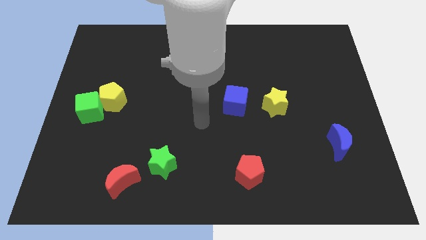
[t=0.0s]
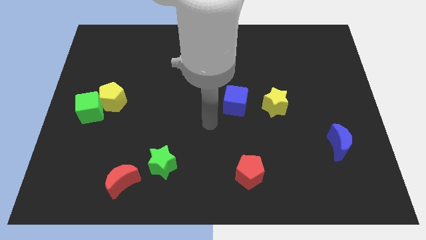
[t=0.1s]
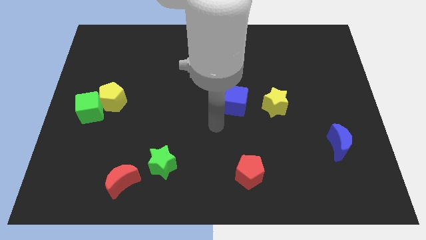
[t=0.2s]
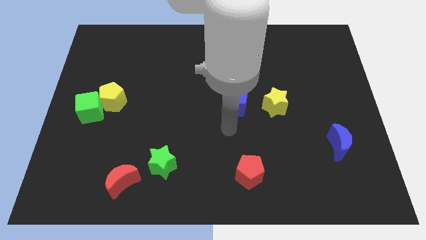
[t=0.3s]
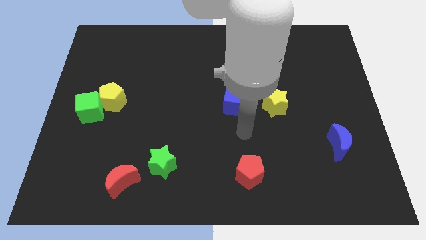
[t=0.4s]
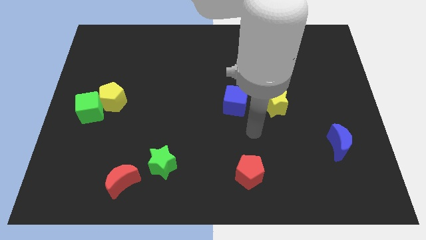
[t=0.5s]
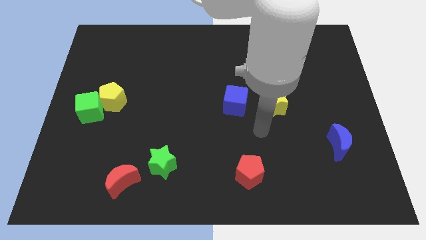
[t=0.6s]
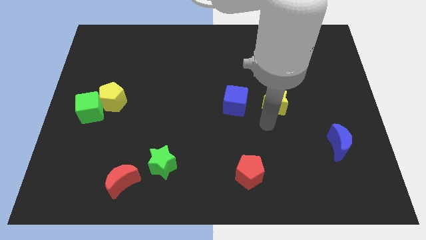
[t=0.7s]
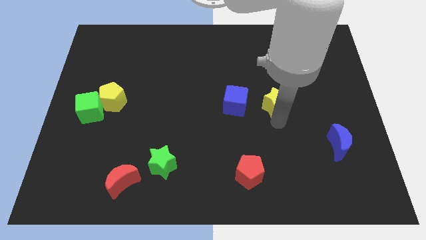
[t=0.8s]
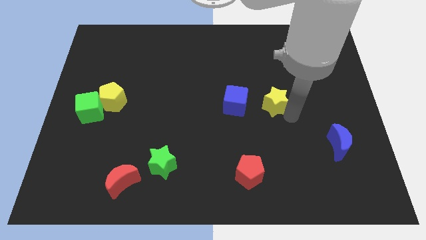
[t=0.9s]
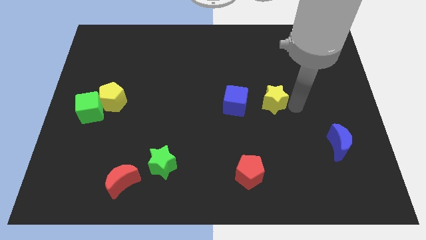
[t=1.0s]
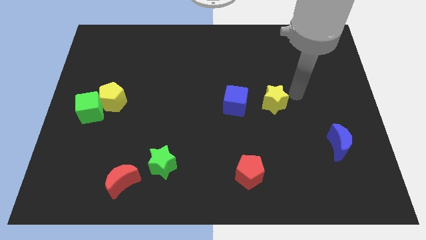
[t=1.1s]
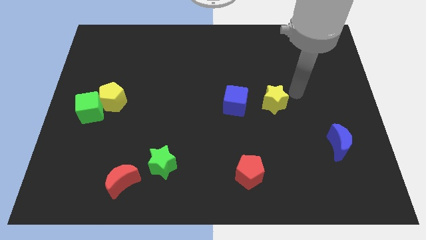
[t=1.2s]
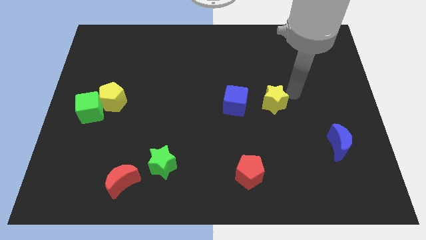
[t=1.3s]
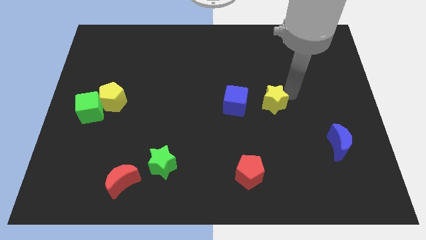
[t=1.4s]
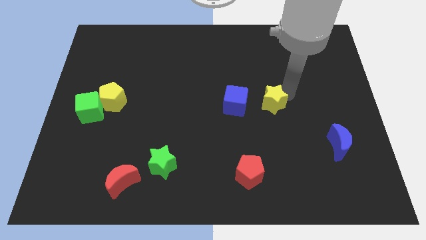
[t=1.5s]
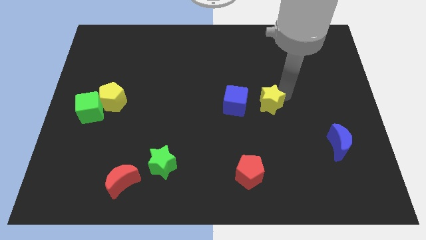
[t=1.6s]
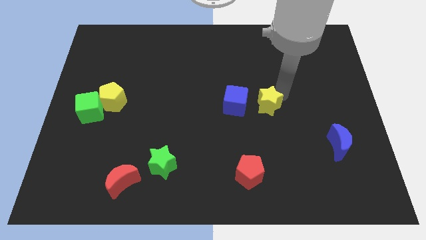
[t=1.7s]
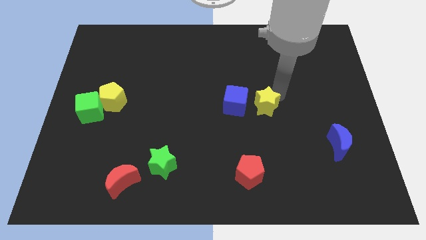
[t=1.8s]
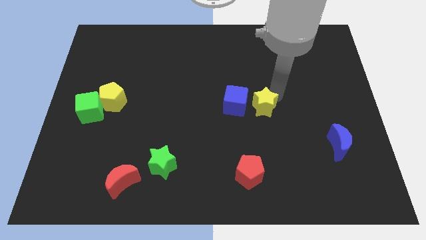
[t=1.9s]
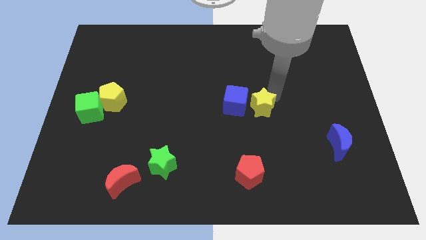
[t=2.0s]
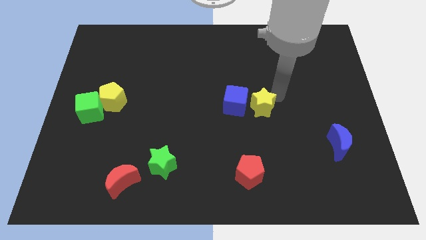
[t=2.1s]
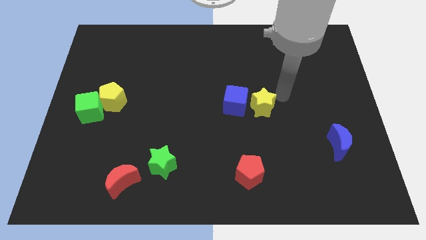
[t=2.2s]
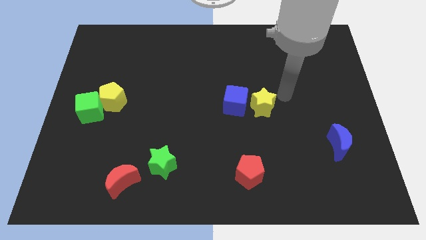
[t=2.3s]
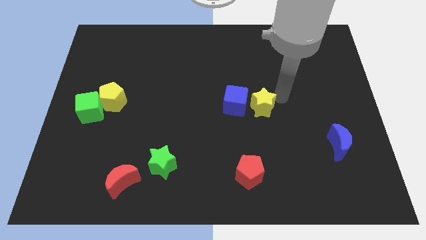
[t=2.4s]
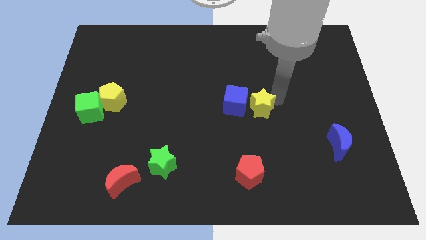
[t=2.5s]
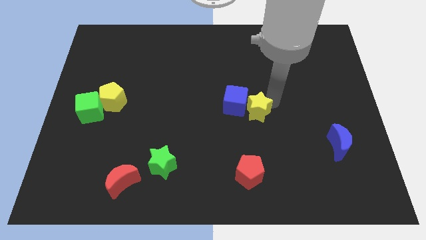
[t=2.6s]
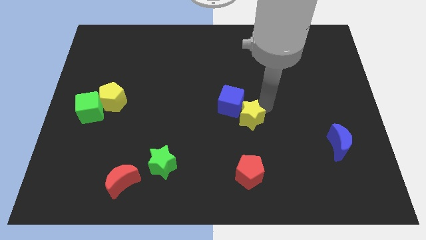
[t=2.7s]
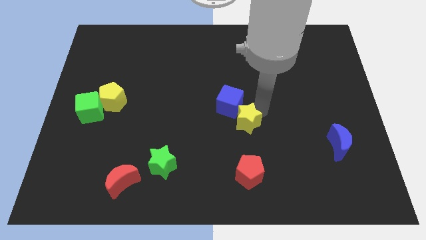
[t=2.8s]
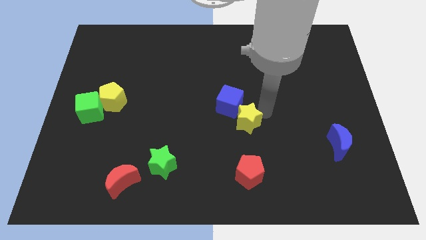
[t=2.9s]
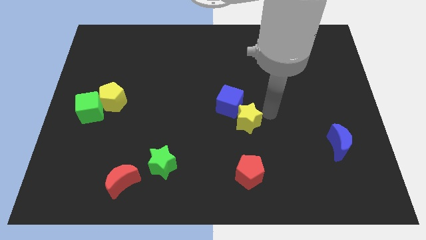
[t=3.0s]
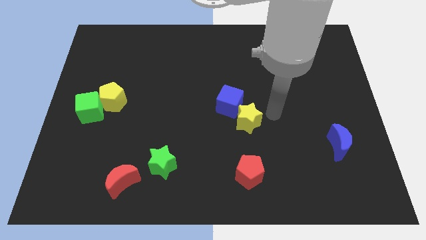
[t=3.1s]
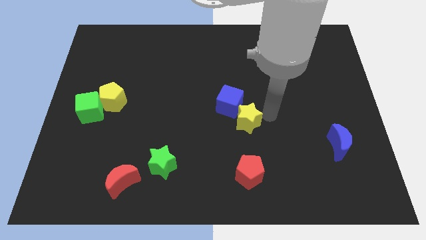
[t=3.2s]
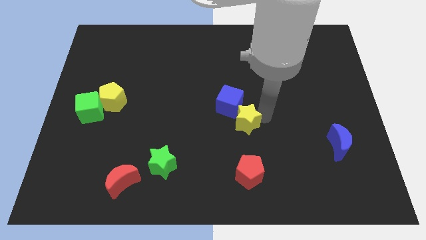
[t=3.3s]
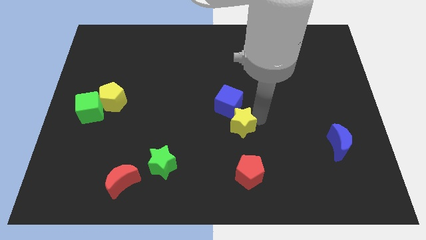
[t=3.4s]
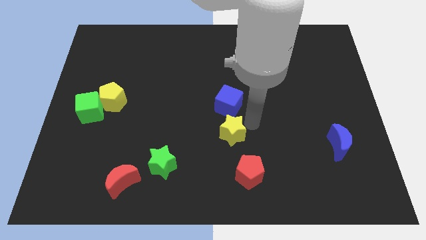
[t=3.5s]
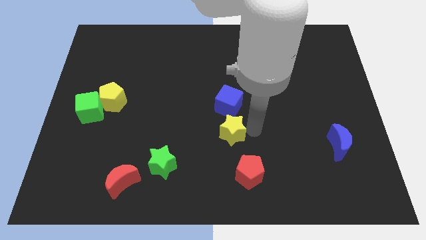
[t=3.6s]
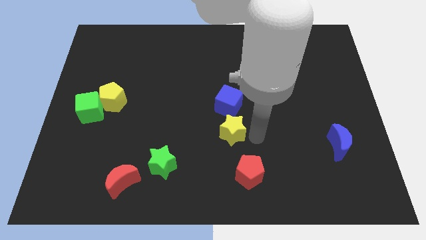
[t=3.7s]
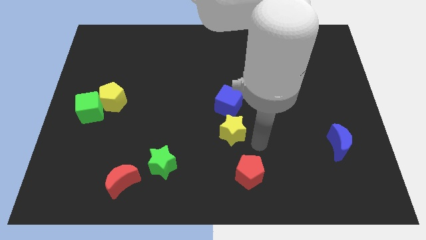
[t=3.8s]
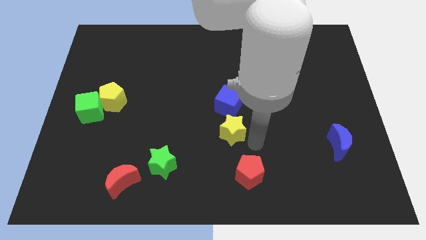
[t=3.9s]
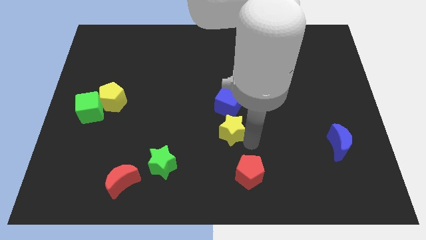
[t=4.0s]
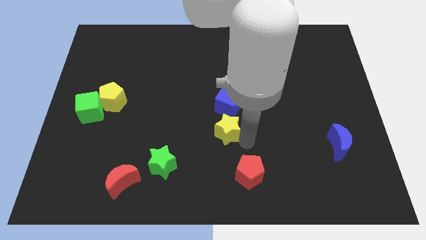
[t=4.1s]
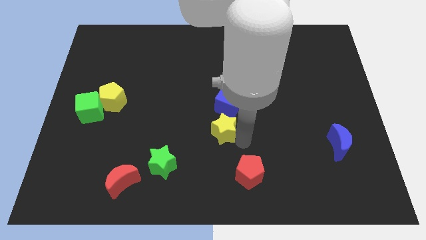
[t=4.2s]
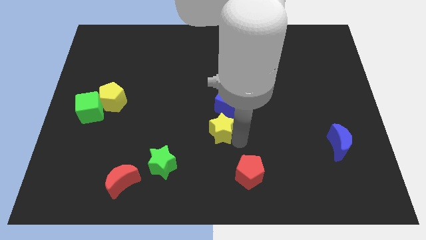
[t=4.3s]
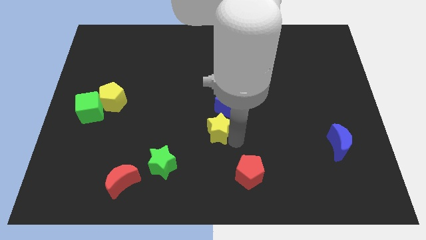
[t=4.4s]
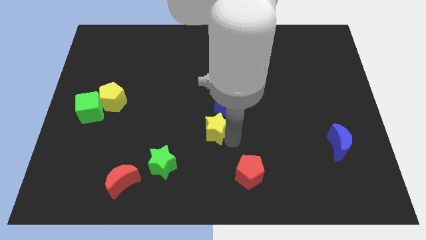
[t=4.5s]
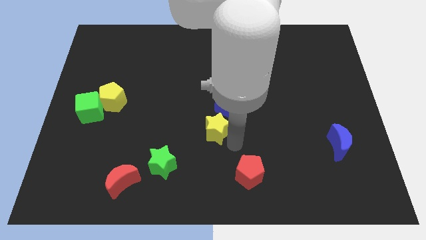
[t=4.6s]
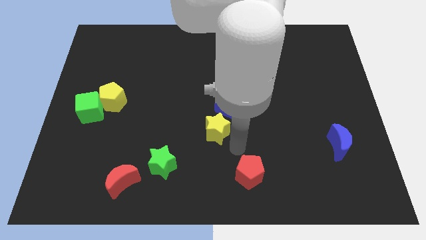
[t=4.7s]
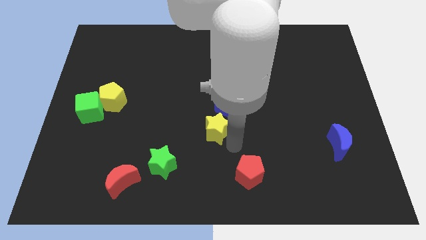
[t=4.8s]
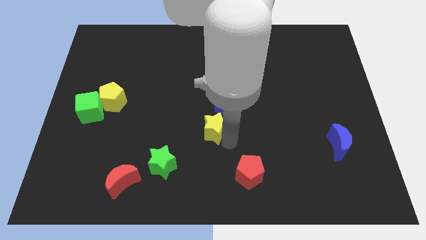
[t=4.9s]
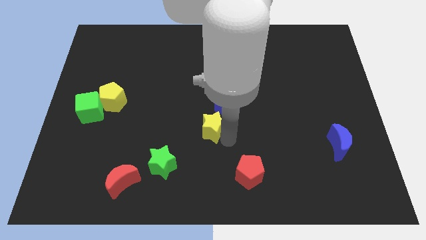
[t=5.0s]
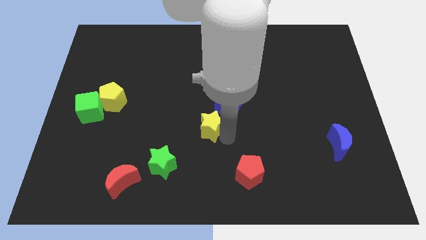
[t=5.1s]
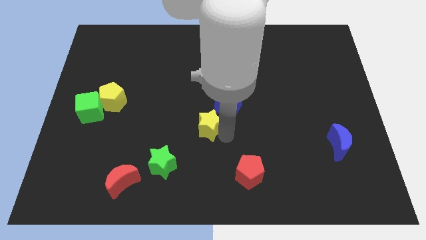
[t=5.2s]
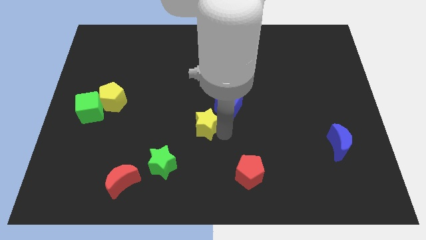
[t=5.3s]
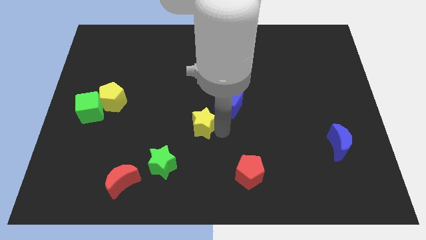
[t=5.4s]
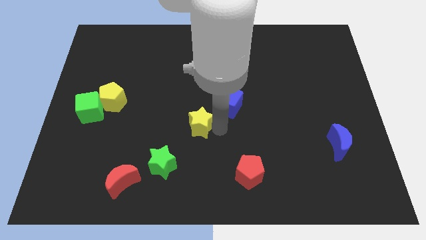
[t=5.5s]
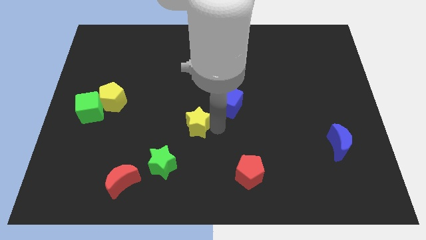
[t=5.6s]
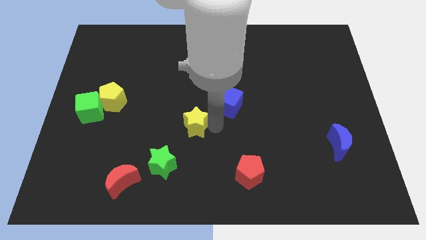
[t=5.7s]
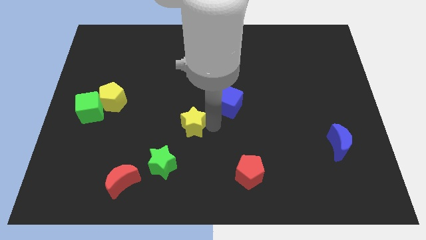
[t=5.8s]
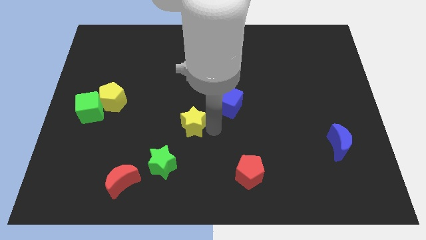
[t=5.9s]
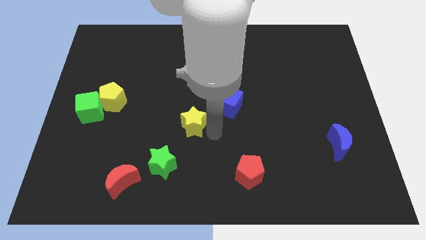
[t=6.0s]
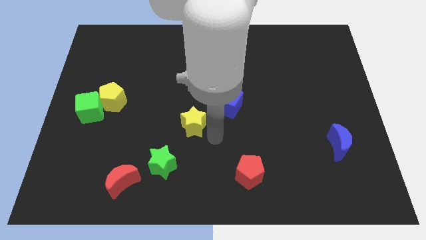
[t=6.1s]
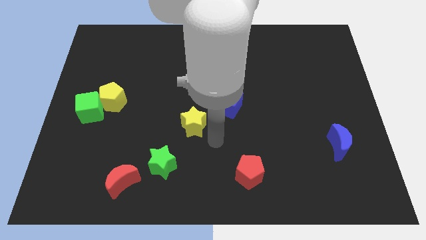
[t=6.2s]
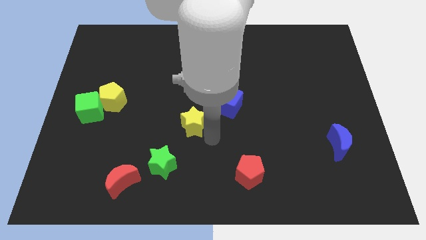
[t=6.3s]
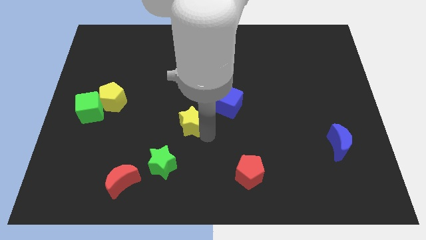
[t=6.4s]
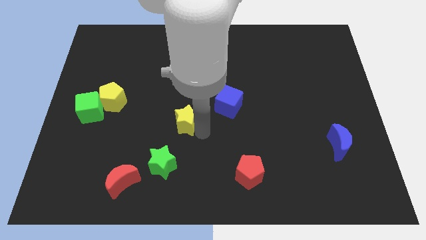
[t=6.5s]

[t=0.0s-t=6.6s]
slide the yellow star to the left

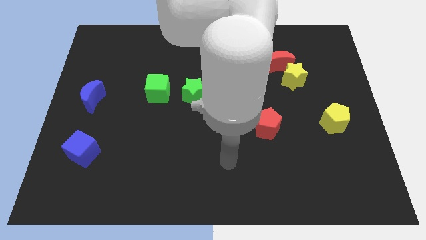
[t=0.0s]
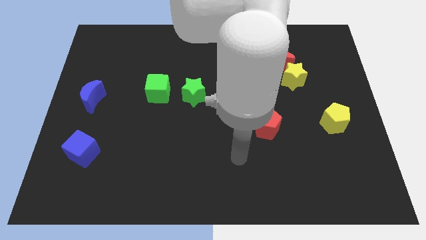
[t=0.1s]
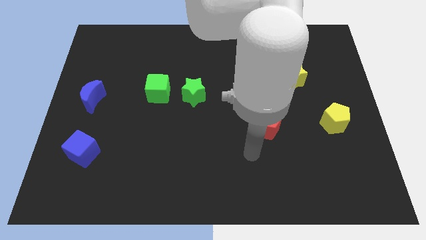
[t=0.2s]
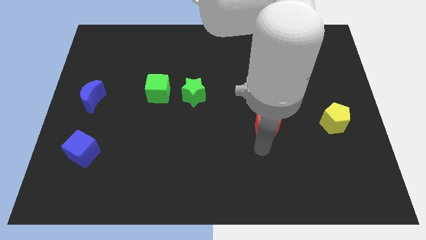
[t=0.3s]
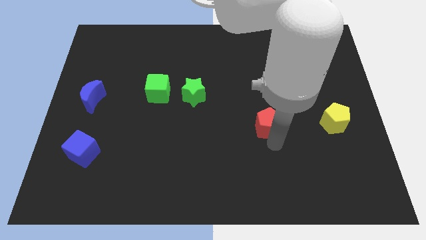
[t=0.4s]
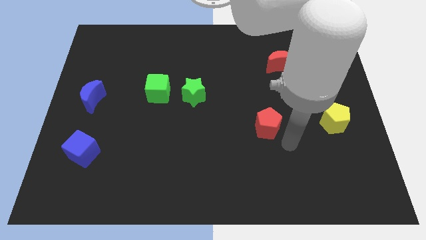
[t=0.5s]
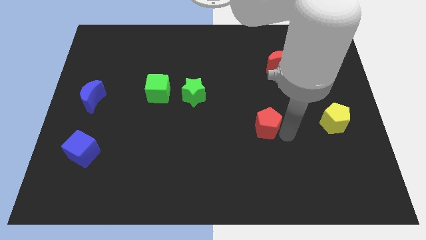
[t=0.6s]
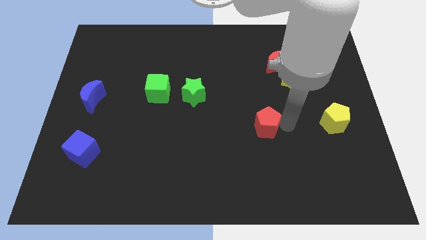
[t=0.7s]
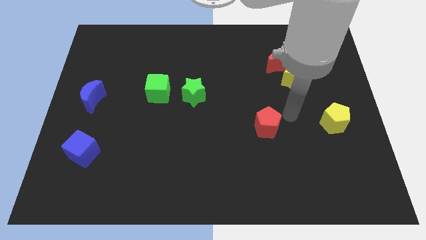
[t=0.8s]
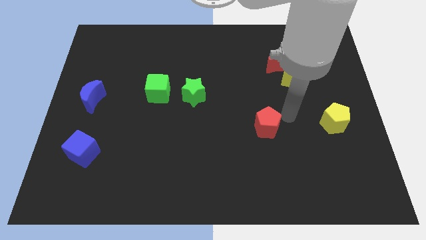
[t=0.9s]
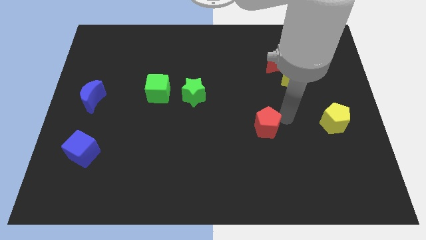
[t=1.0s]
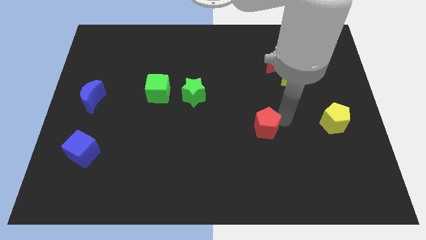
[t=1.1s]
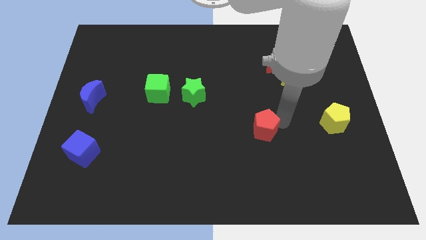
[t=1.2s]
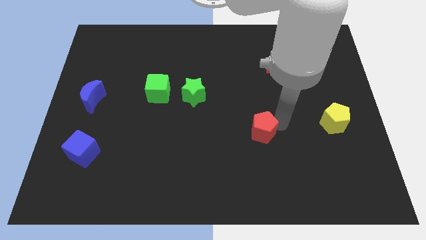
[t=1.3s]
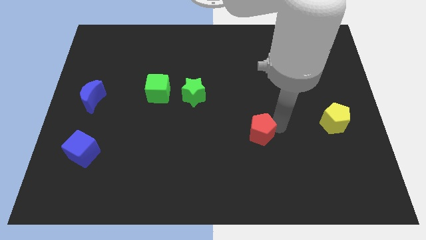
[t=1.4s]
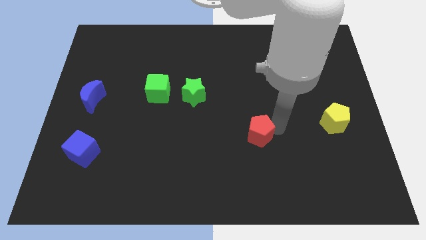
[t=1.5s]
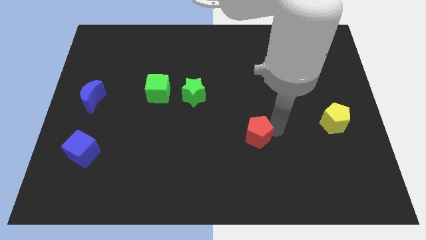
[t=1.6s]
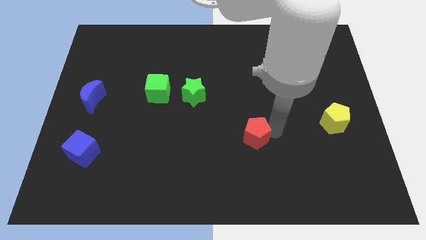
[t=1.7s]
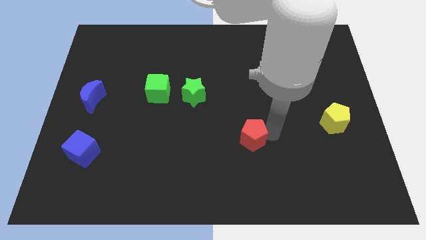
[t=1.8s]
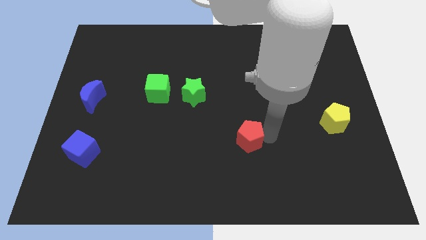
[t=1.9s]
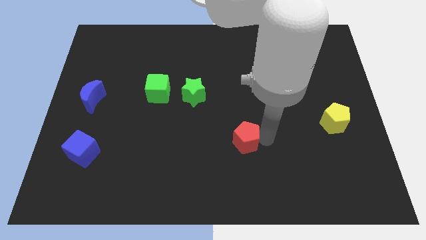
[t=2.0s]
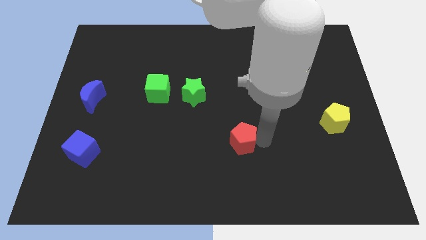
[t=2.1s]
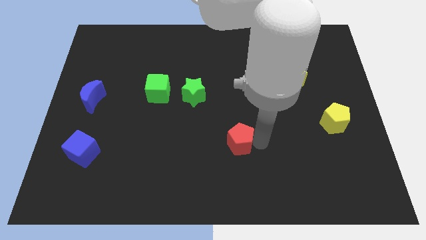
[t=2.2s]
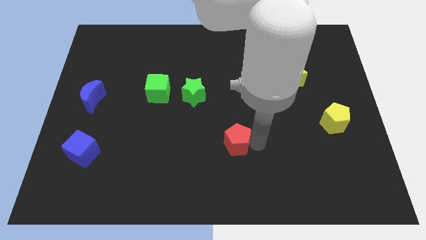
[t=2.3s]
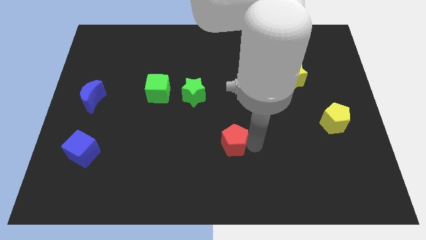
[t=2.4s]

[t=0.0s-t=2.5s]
slightly slide the red pentagon left
